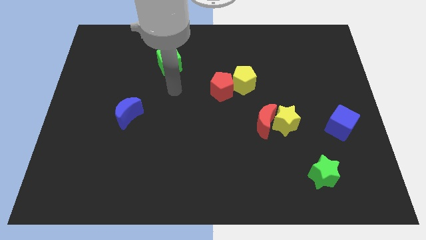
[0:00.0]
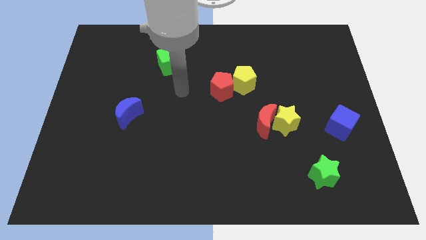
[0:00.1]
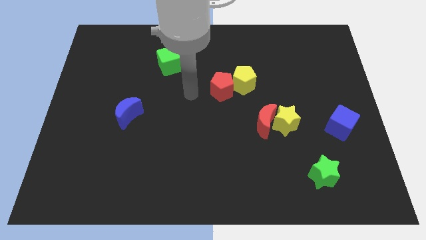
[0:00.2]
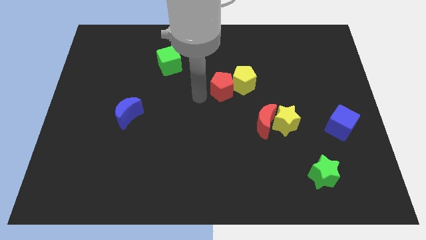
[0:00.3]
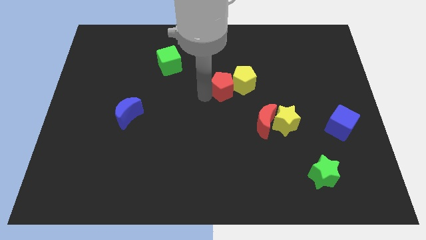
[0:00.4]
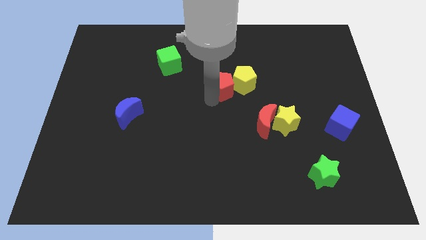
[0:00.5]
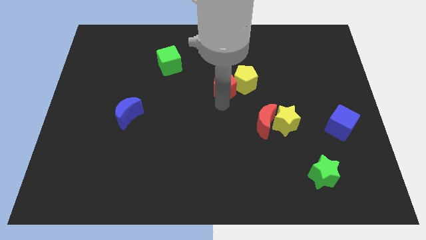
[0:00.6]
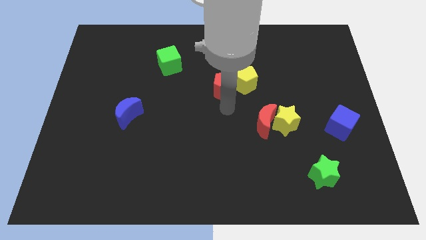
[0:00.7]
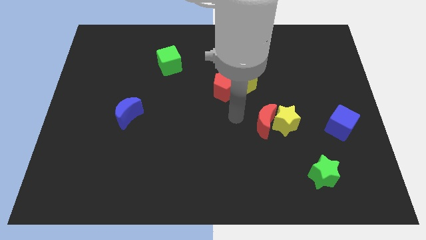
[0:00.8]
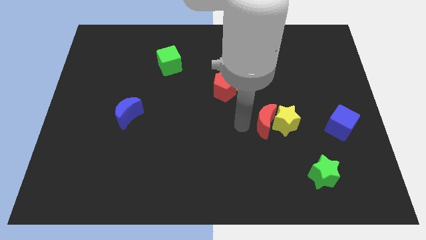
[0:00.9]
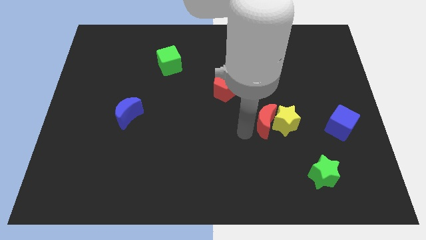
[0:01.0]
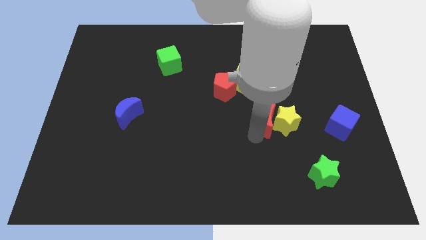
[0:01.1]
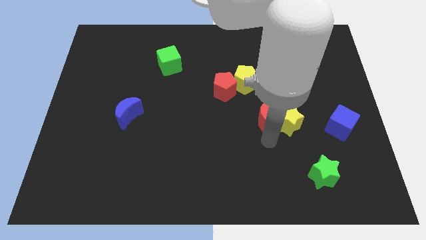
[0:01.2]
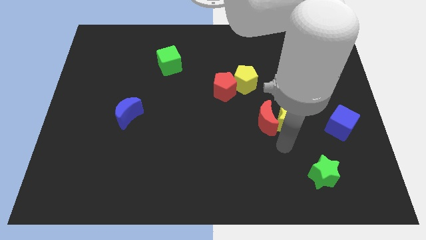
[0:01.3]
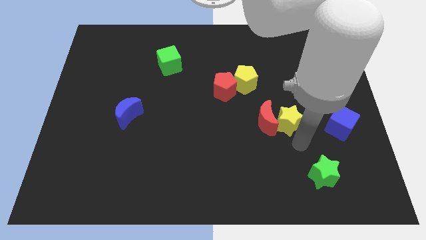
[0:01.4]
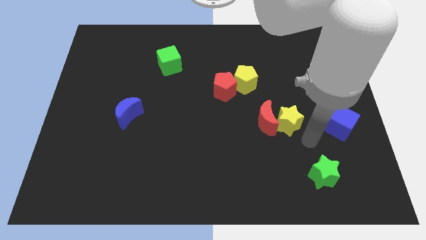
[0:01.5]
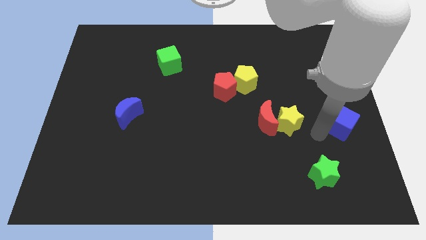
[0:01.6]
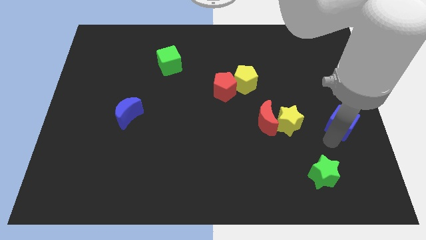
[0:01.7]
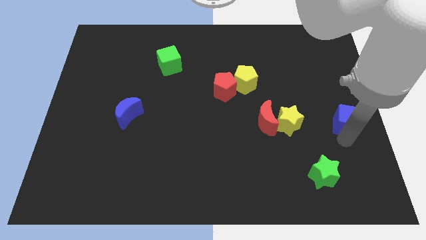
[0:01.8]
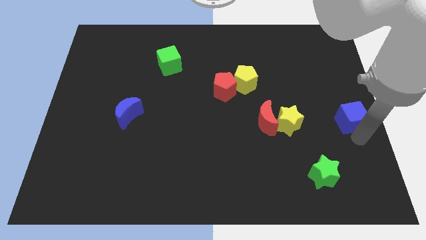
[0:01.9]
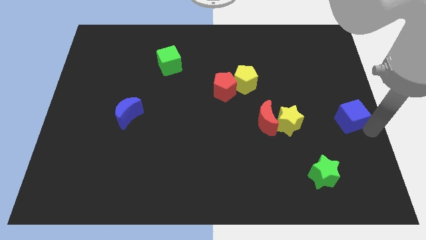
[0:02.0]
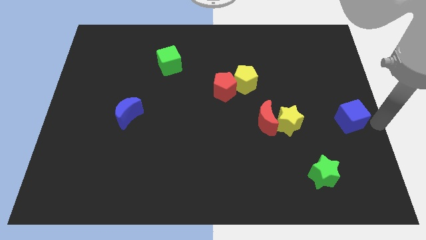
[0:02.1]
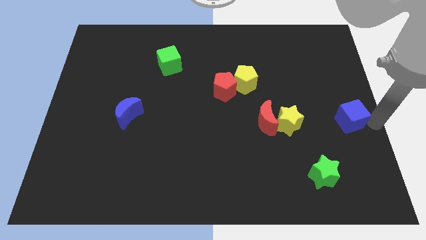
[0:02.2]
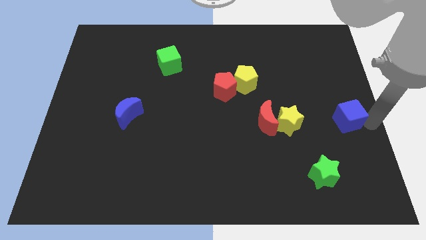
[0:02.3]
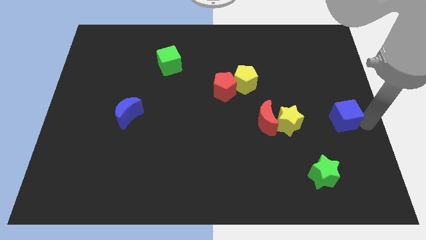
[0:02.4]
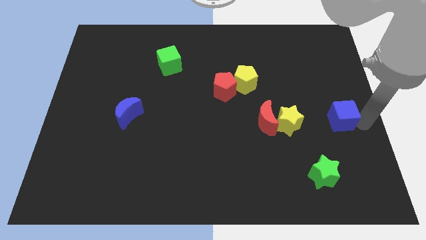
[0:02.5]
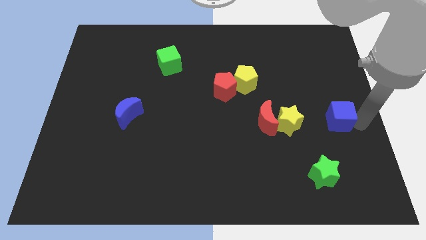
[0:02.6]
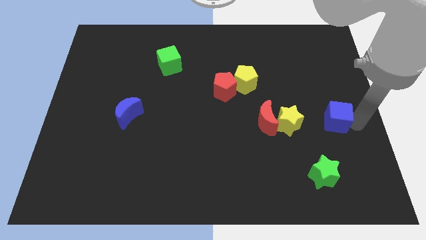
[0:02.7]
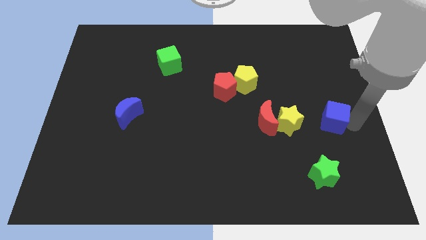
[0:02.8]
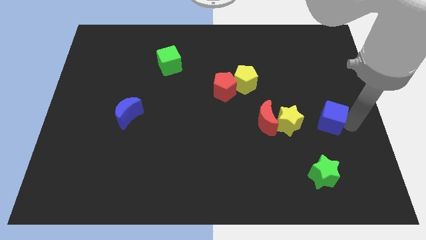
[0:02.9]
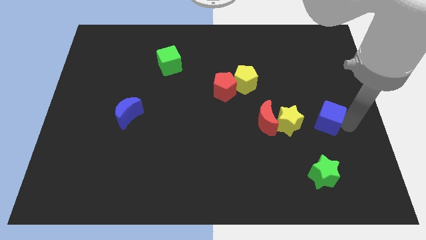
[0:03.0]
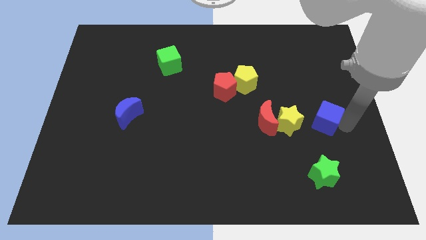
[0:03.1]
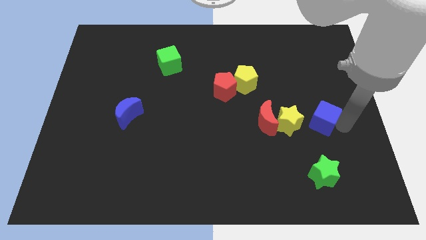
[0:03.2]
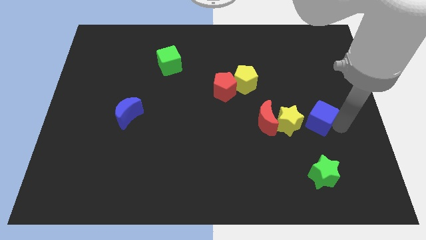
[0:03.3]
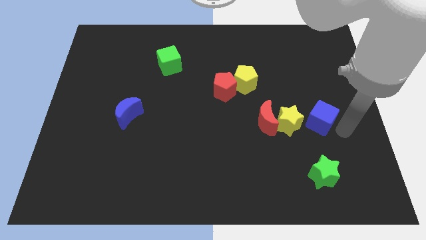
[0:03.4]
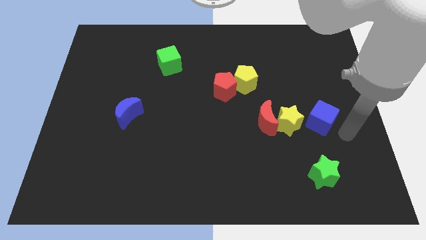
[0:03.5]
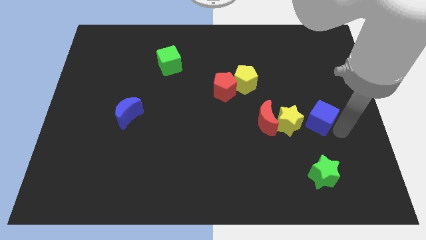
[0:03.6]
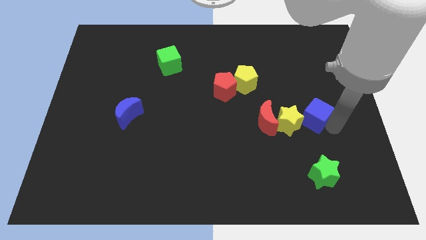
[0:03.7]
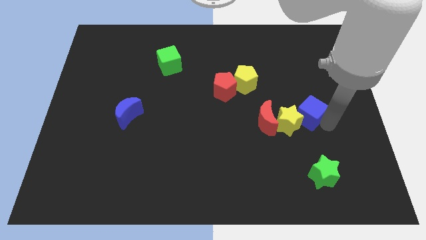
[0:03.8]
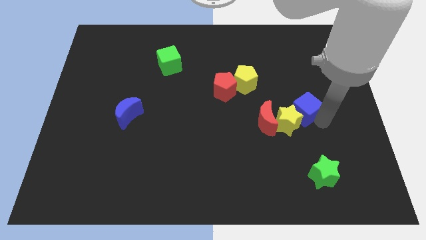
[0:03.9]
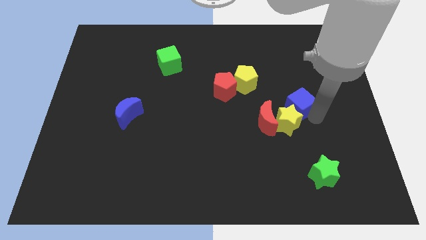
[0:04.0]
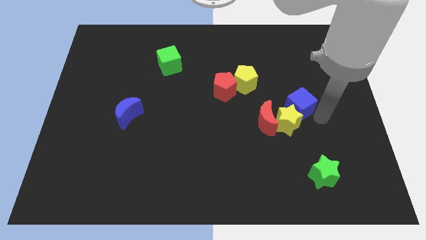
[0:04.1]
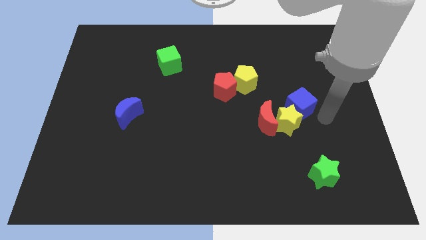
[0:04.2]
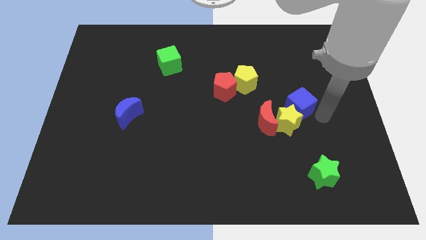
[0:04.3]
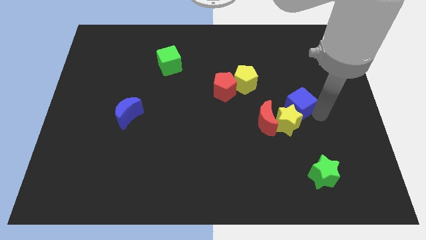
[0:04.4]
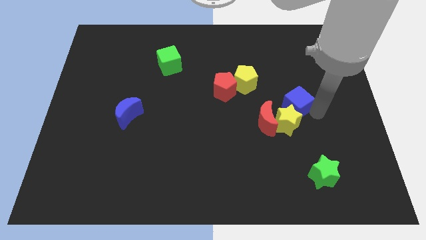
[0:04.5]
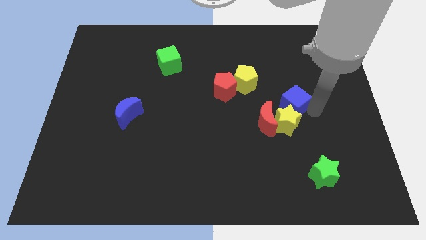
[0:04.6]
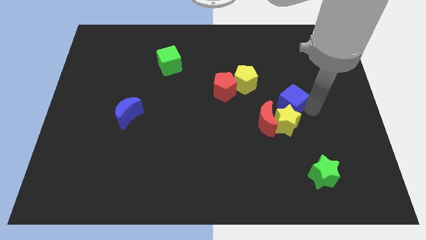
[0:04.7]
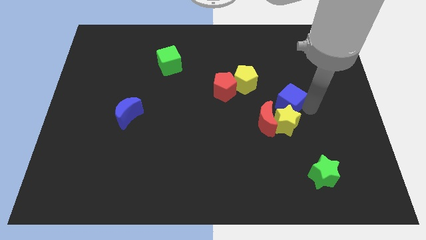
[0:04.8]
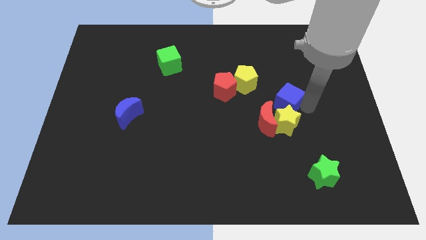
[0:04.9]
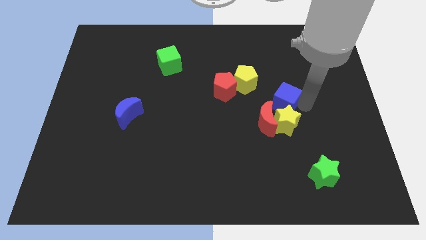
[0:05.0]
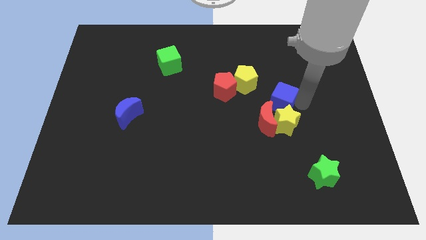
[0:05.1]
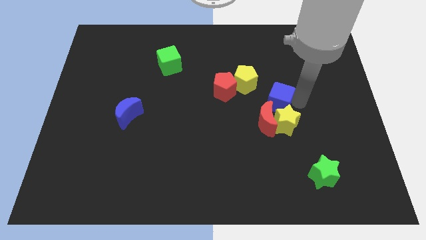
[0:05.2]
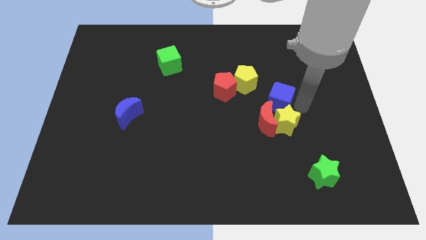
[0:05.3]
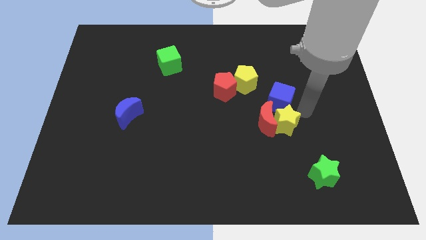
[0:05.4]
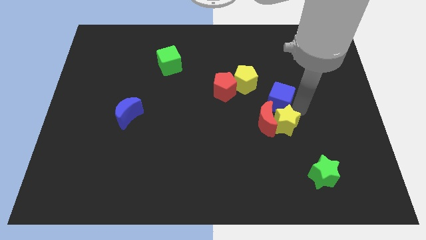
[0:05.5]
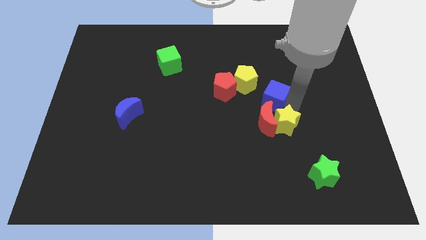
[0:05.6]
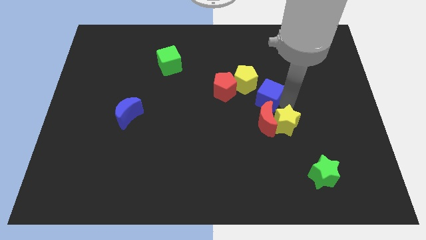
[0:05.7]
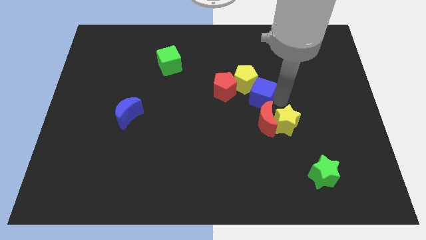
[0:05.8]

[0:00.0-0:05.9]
put the blue cube to the bottom right side of the red pentagon

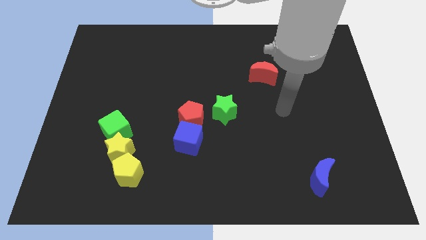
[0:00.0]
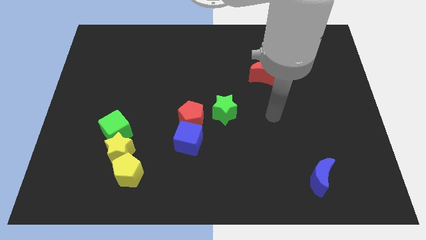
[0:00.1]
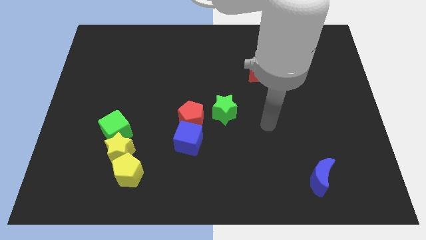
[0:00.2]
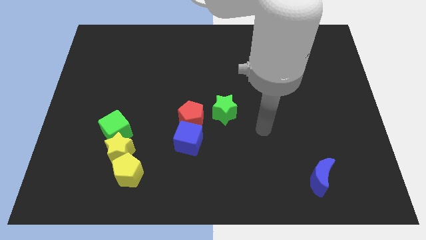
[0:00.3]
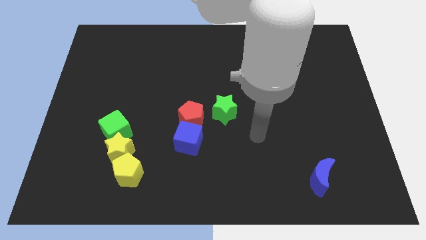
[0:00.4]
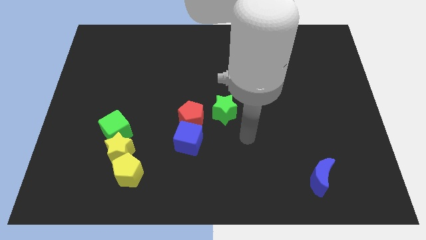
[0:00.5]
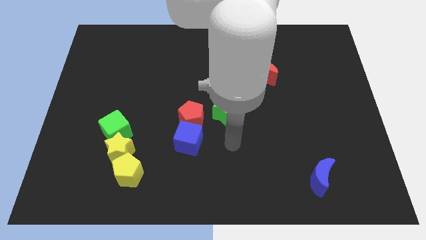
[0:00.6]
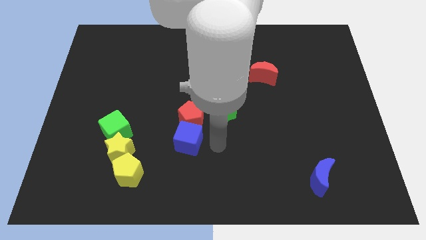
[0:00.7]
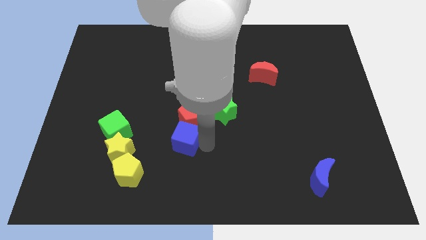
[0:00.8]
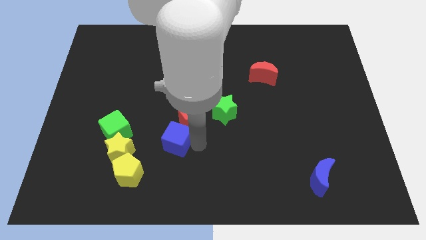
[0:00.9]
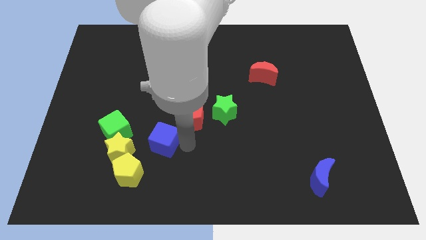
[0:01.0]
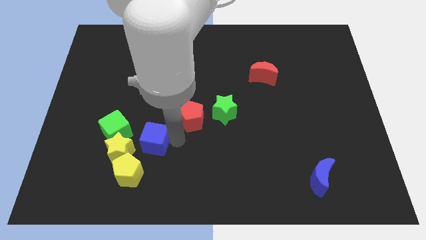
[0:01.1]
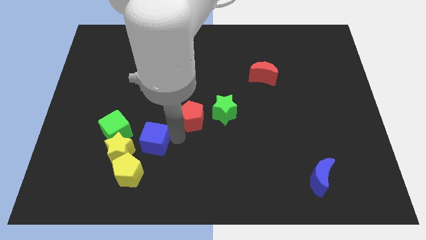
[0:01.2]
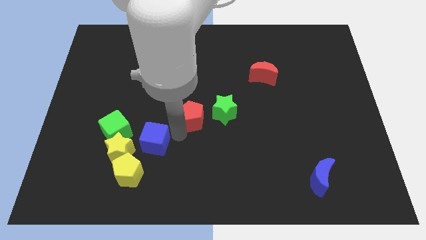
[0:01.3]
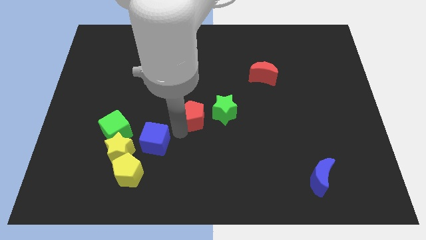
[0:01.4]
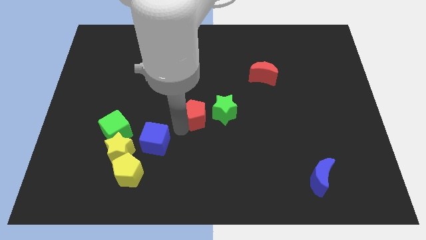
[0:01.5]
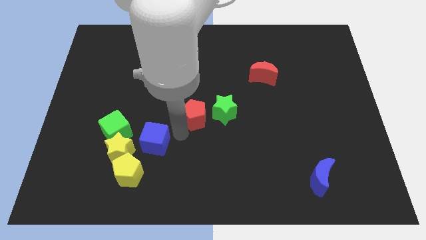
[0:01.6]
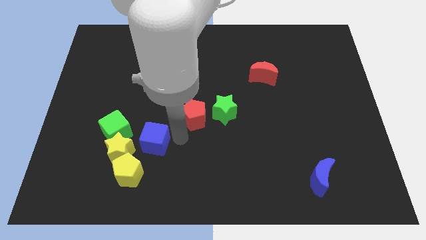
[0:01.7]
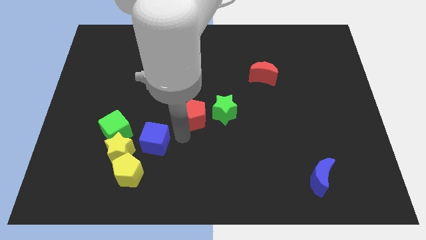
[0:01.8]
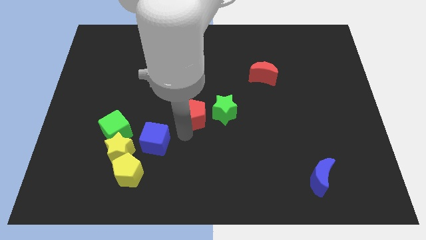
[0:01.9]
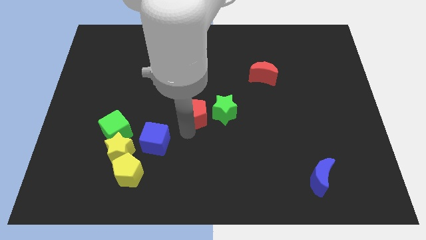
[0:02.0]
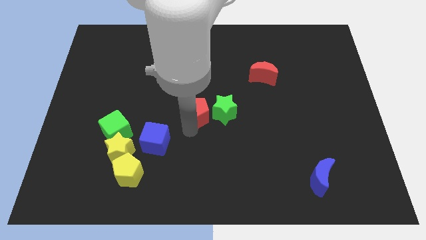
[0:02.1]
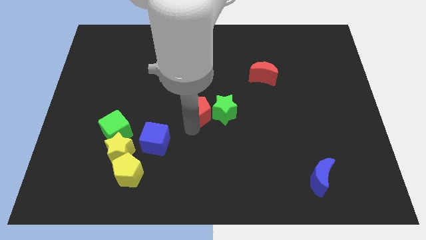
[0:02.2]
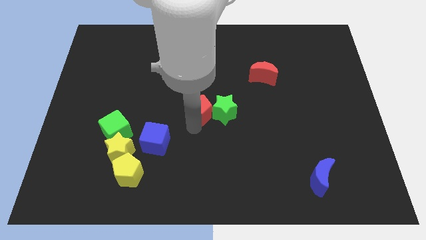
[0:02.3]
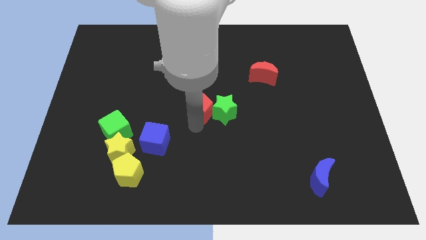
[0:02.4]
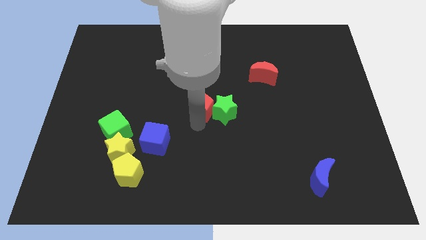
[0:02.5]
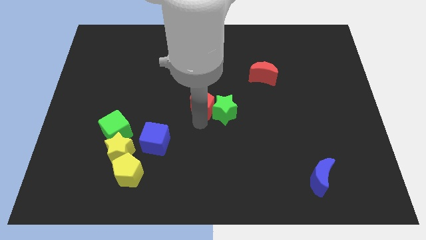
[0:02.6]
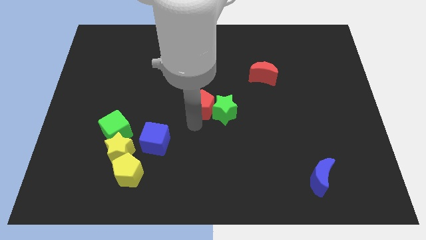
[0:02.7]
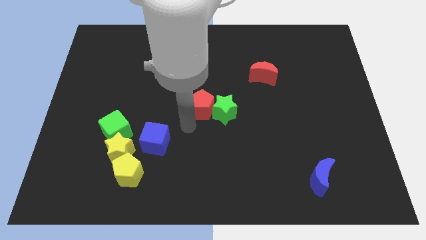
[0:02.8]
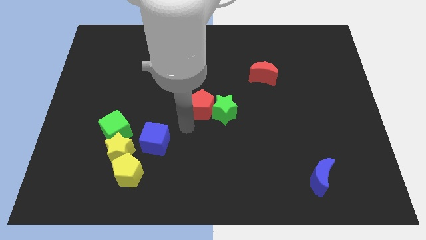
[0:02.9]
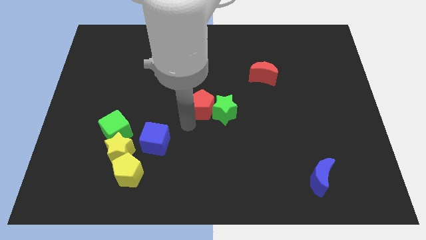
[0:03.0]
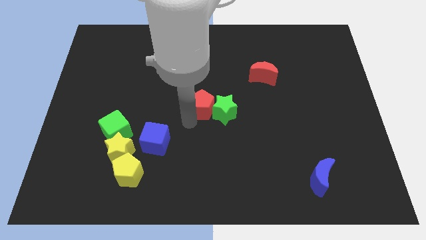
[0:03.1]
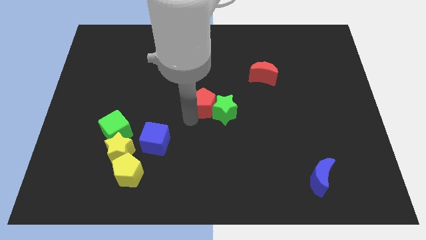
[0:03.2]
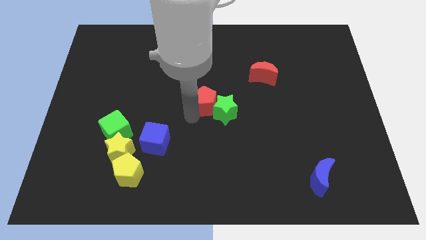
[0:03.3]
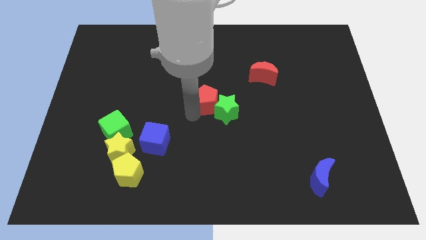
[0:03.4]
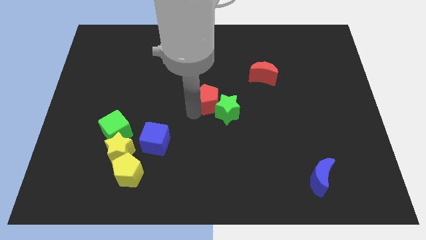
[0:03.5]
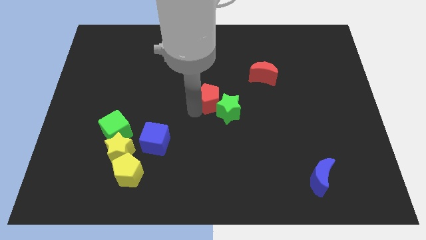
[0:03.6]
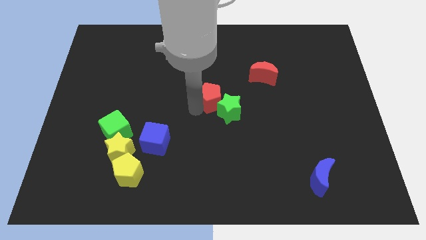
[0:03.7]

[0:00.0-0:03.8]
push the red pentagon to the top side of the green star
